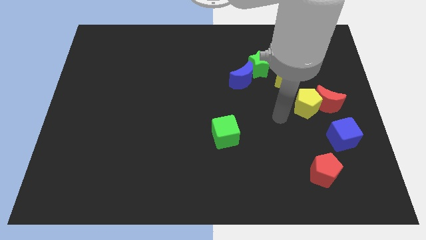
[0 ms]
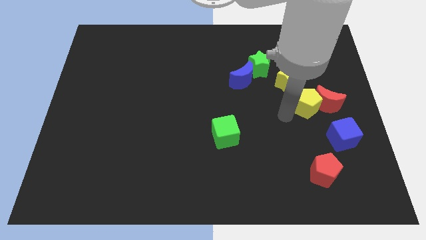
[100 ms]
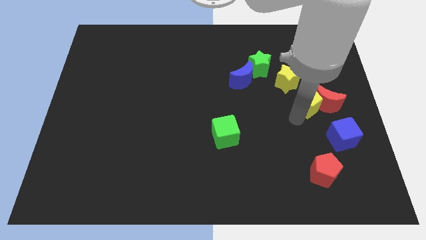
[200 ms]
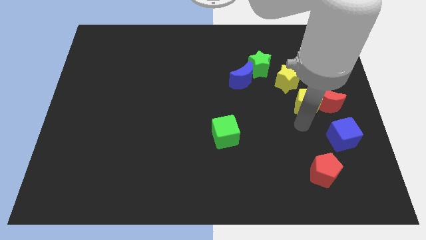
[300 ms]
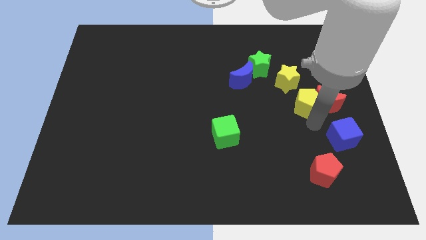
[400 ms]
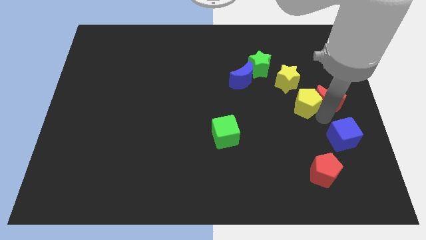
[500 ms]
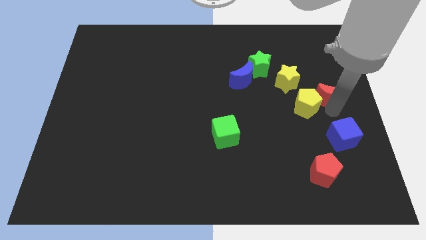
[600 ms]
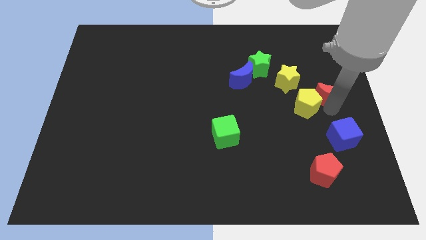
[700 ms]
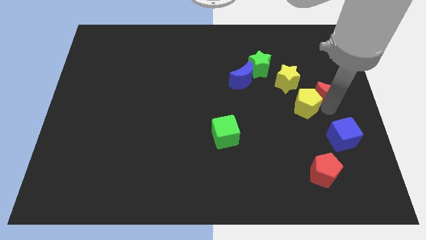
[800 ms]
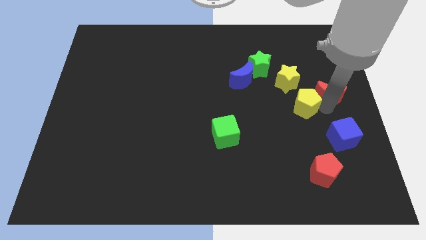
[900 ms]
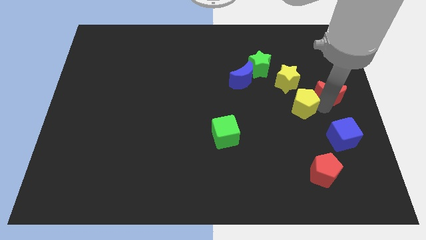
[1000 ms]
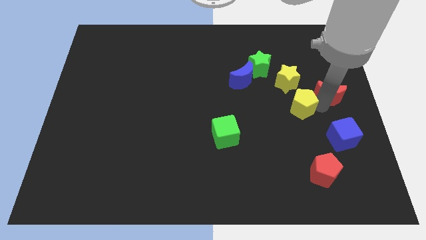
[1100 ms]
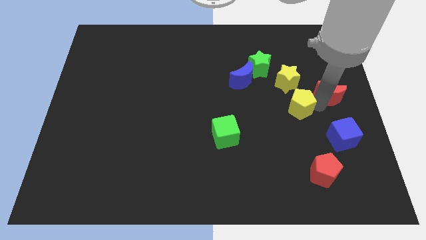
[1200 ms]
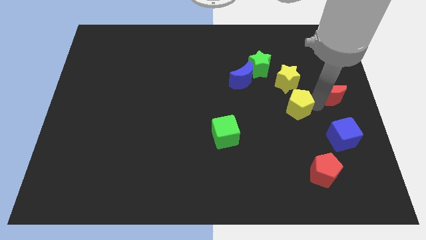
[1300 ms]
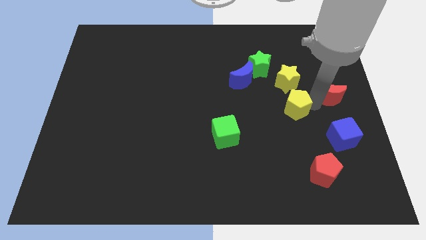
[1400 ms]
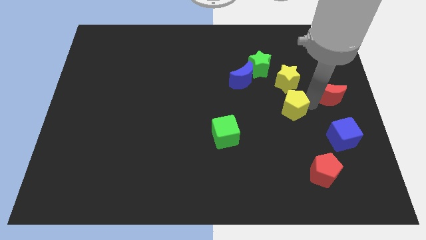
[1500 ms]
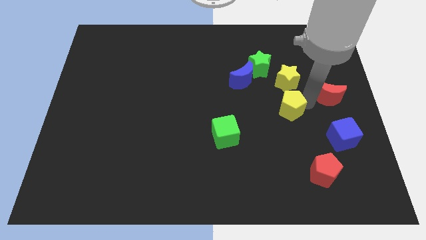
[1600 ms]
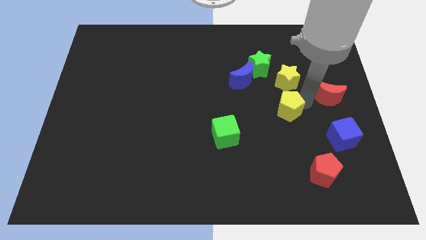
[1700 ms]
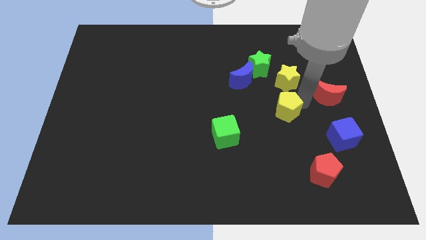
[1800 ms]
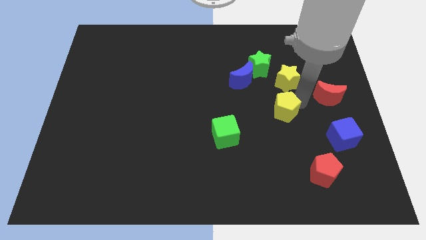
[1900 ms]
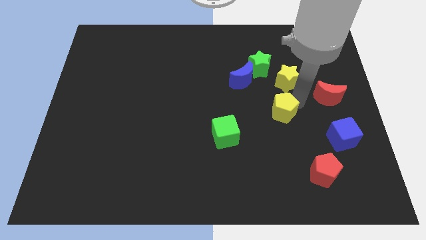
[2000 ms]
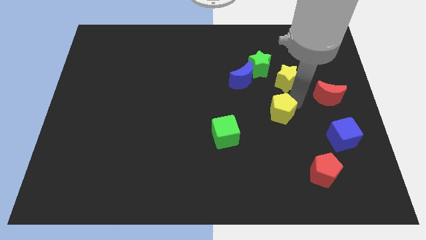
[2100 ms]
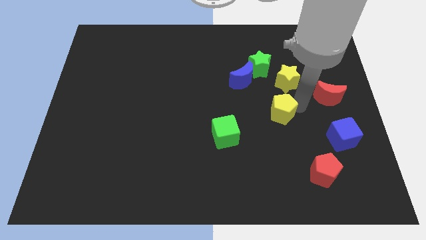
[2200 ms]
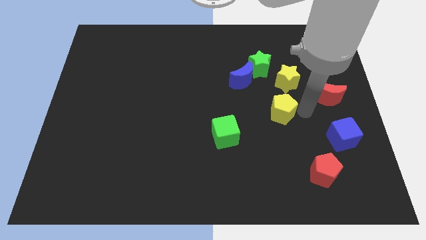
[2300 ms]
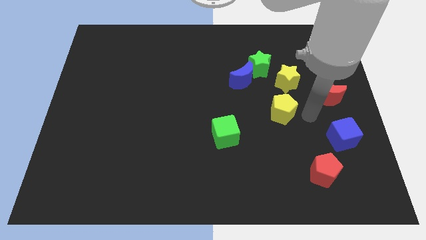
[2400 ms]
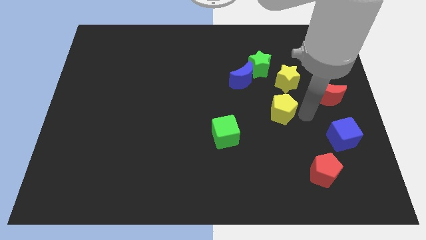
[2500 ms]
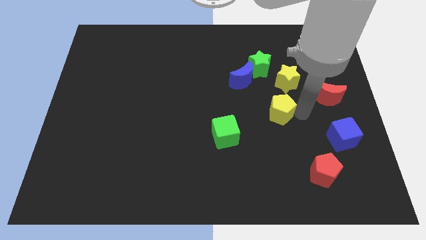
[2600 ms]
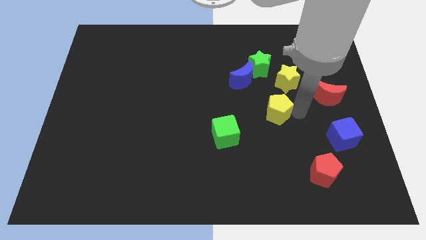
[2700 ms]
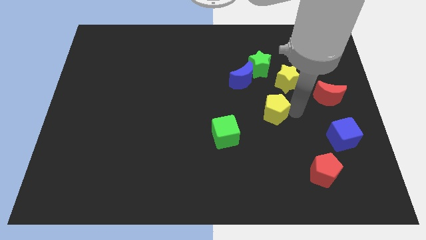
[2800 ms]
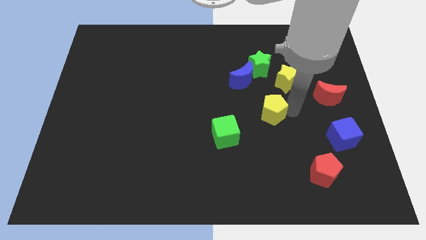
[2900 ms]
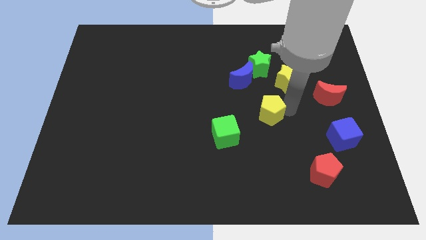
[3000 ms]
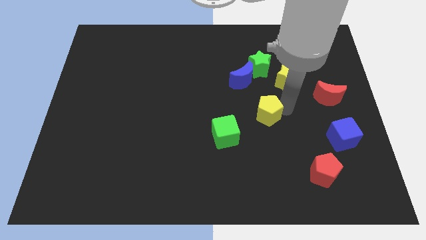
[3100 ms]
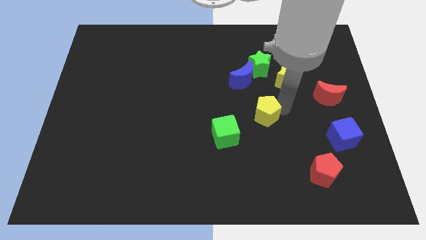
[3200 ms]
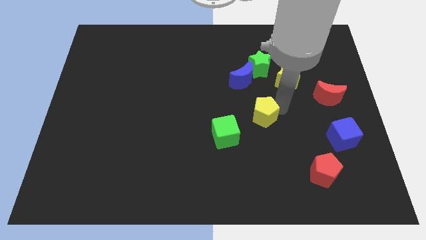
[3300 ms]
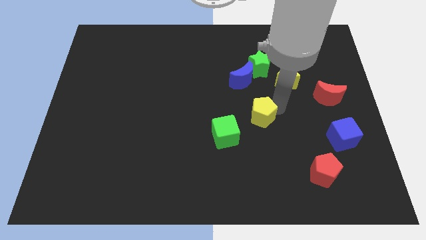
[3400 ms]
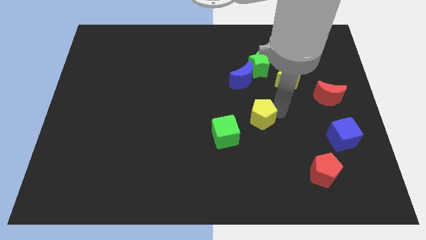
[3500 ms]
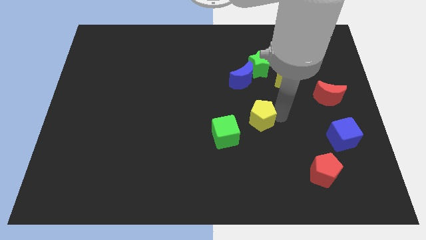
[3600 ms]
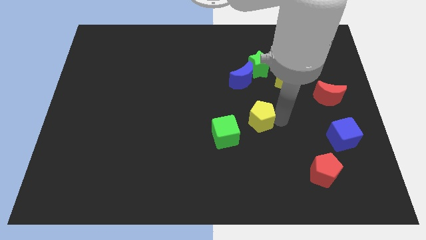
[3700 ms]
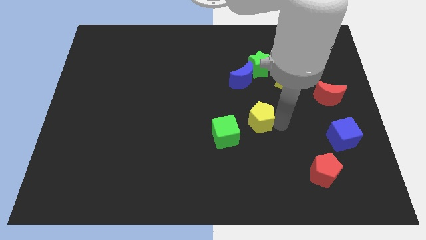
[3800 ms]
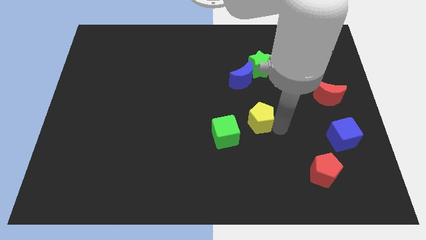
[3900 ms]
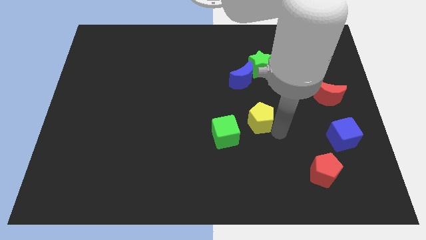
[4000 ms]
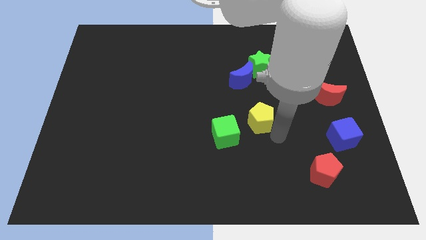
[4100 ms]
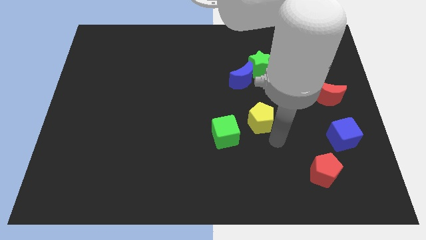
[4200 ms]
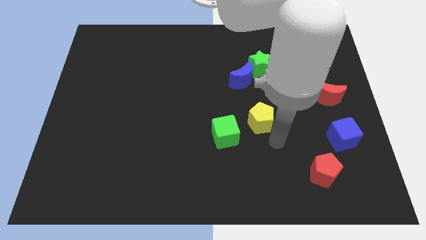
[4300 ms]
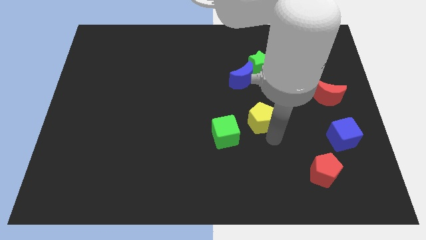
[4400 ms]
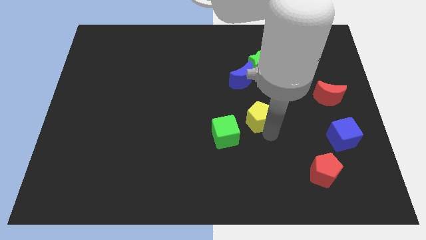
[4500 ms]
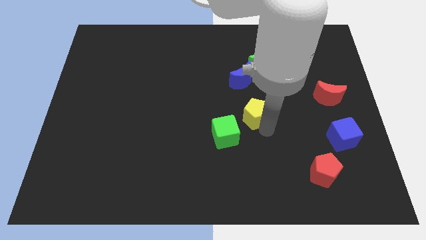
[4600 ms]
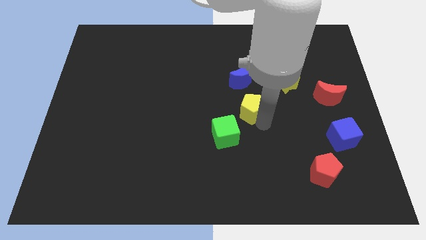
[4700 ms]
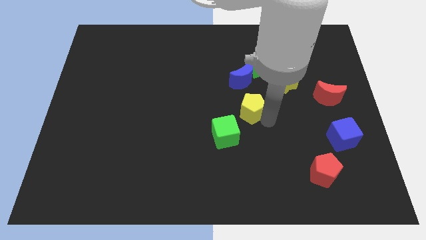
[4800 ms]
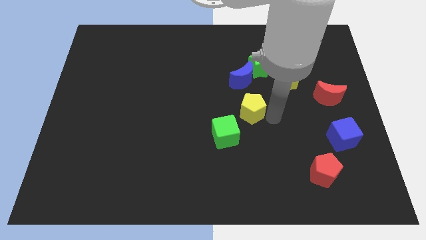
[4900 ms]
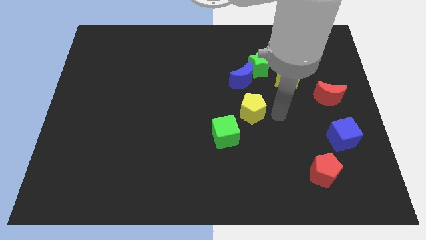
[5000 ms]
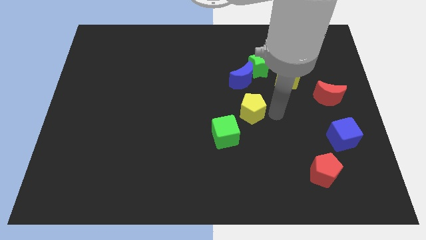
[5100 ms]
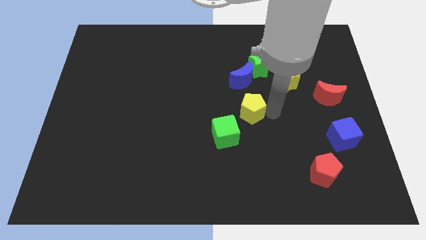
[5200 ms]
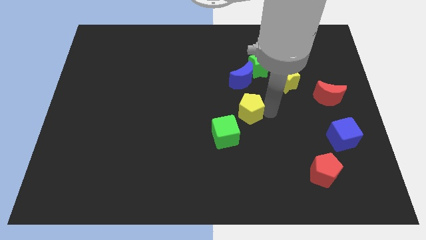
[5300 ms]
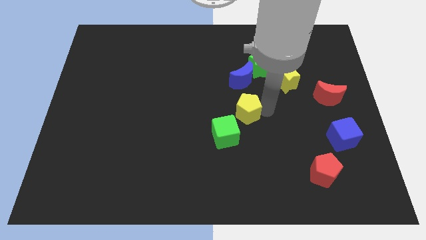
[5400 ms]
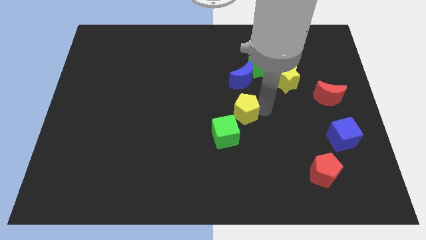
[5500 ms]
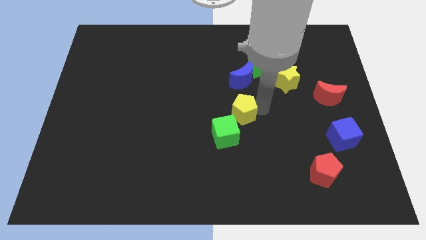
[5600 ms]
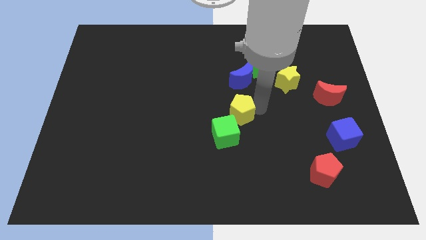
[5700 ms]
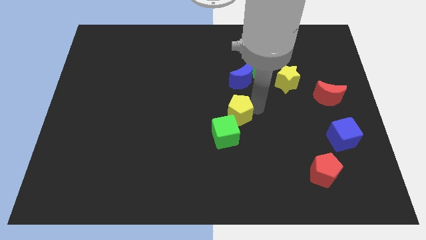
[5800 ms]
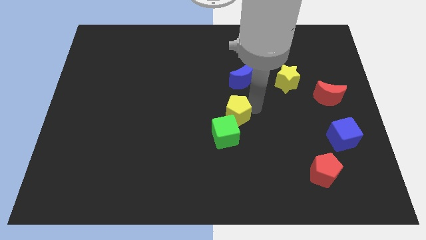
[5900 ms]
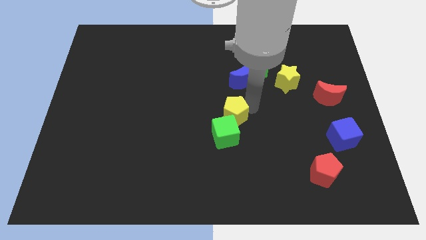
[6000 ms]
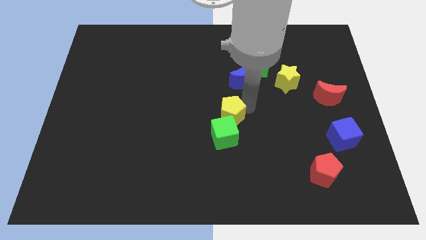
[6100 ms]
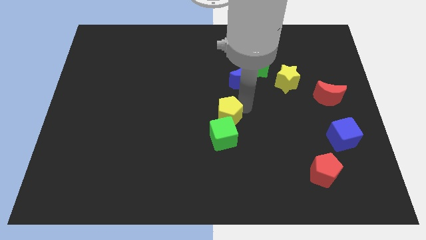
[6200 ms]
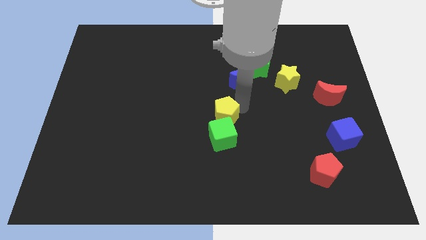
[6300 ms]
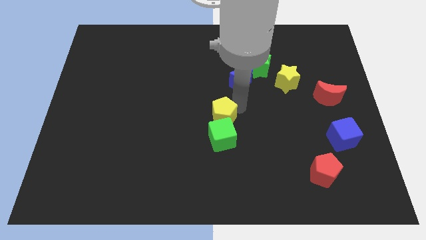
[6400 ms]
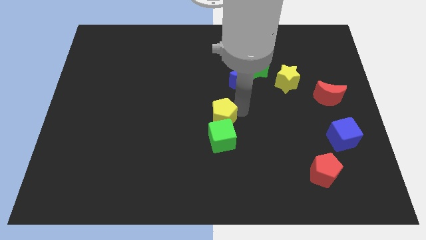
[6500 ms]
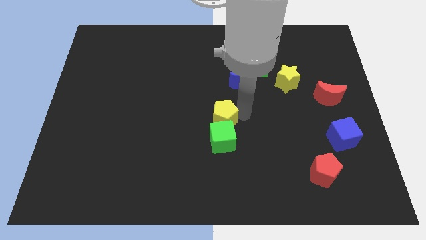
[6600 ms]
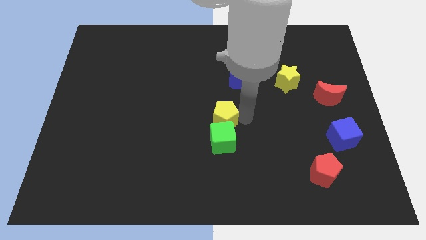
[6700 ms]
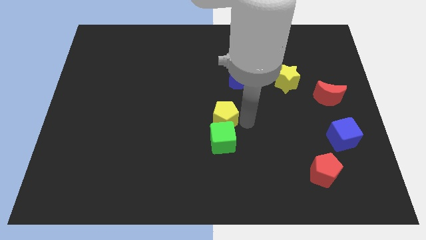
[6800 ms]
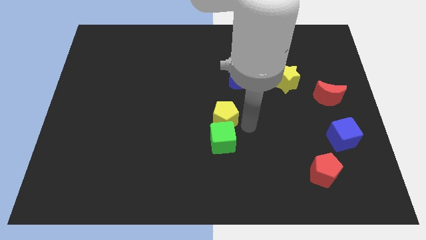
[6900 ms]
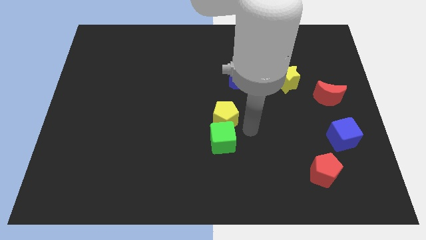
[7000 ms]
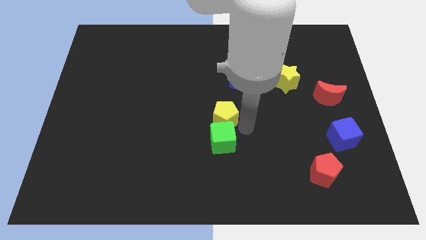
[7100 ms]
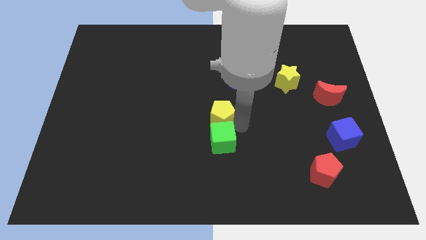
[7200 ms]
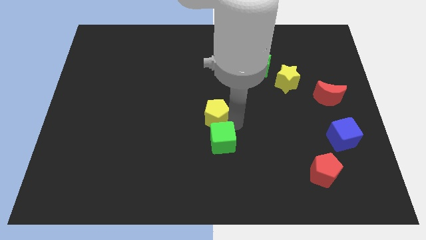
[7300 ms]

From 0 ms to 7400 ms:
move the yellow pentagon to the left

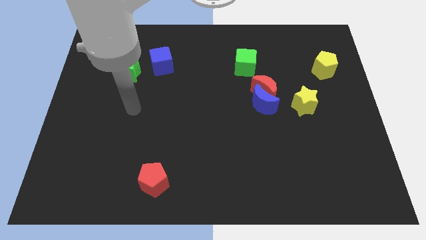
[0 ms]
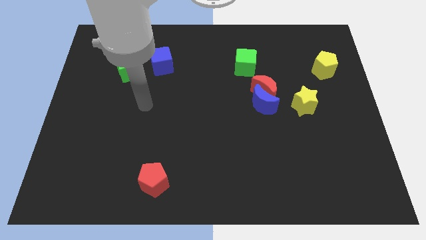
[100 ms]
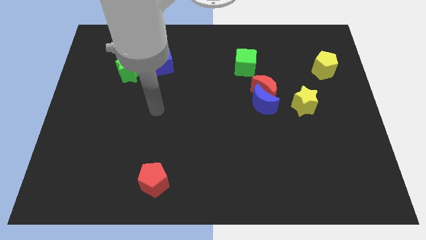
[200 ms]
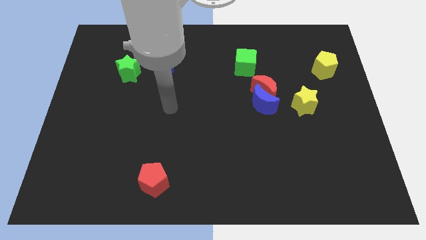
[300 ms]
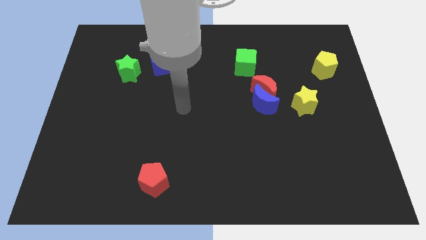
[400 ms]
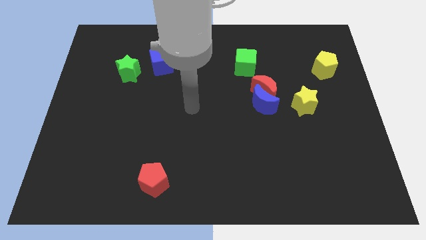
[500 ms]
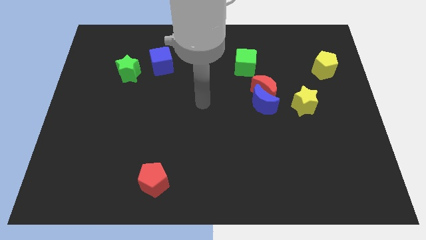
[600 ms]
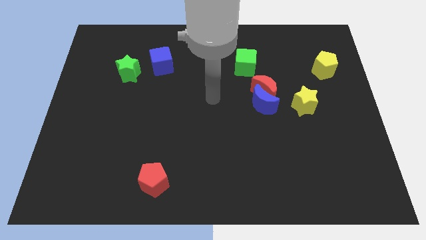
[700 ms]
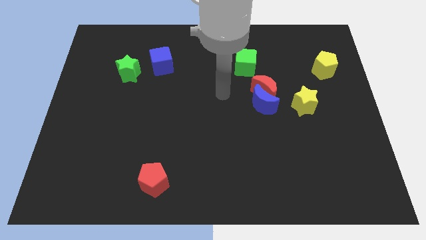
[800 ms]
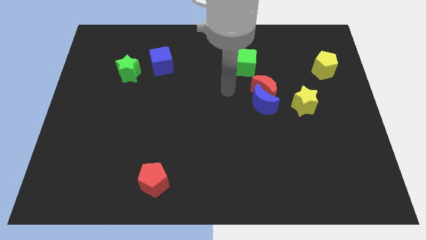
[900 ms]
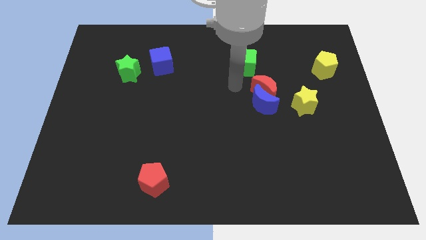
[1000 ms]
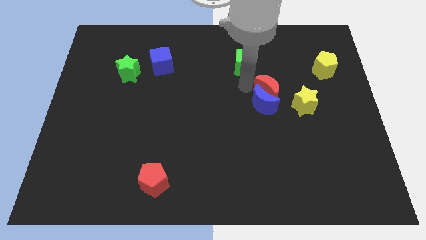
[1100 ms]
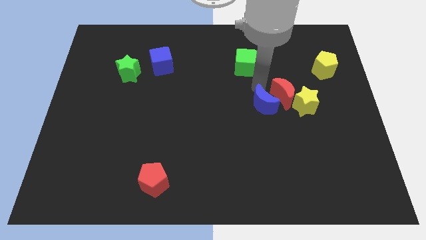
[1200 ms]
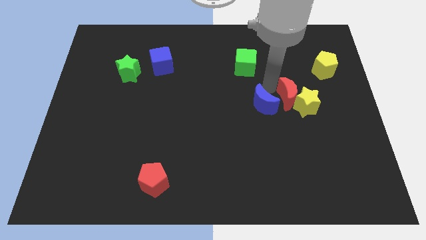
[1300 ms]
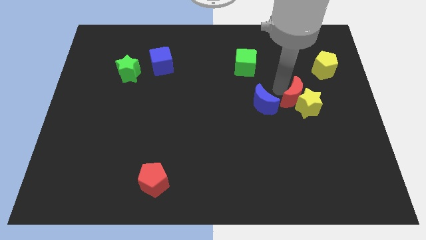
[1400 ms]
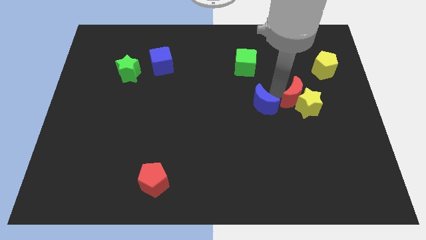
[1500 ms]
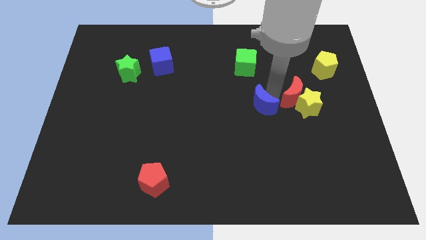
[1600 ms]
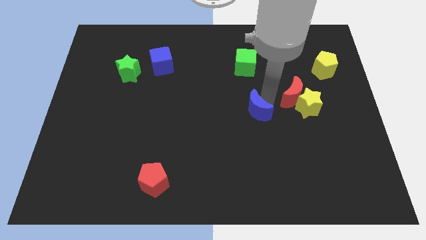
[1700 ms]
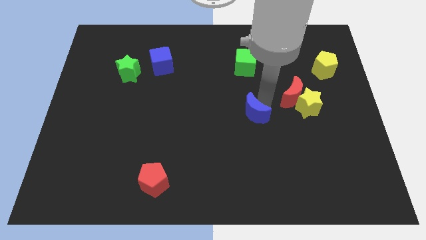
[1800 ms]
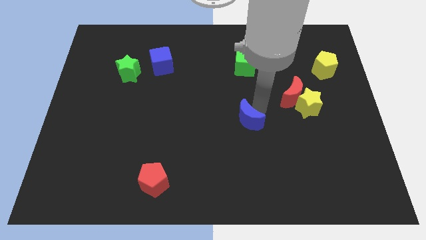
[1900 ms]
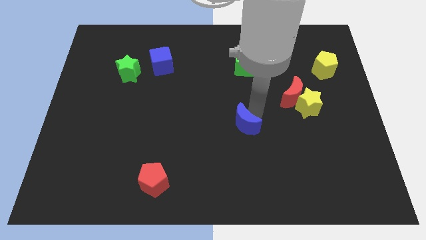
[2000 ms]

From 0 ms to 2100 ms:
push the blue moon a bit downwards and to the left
